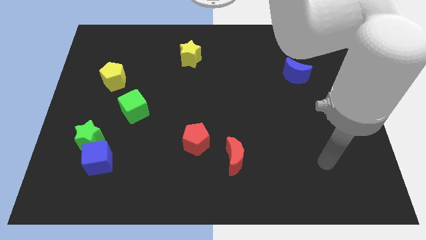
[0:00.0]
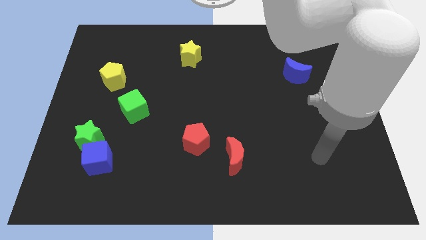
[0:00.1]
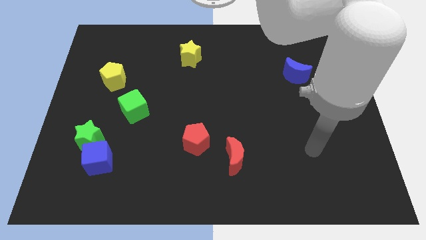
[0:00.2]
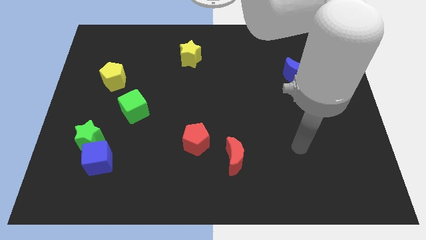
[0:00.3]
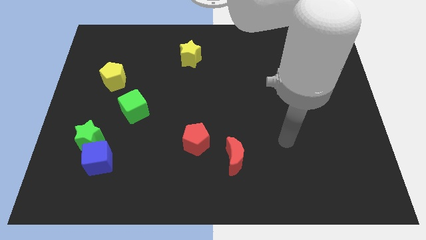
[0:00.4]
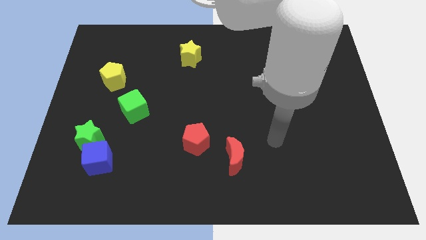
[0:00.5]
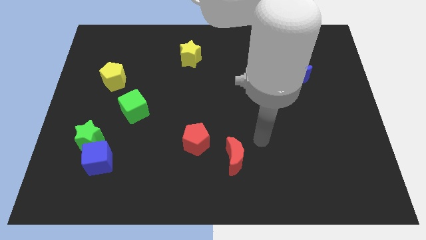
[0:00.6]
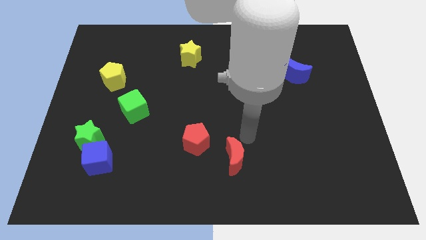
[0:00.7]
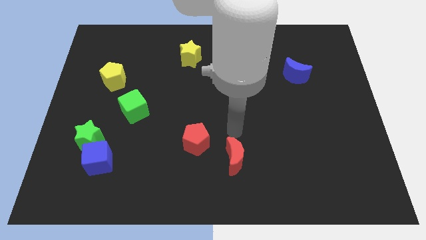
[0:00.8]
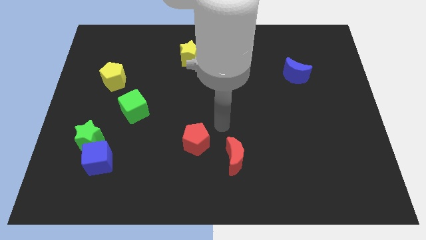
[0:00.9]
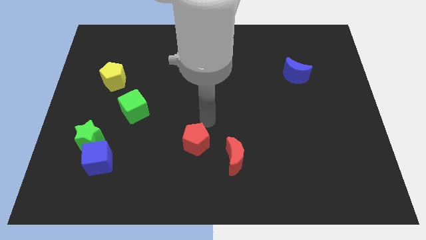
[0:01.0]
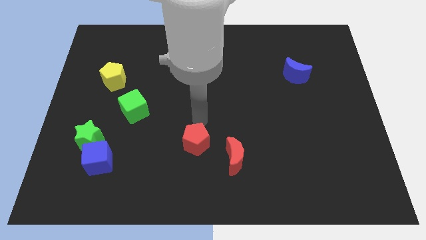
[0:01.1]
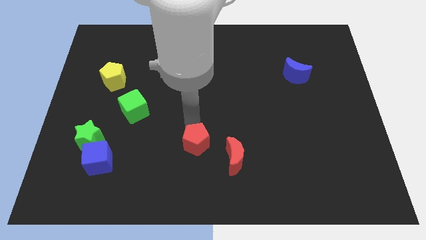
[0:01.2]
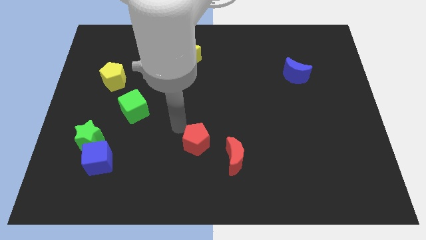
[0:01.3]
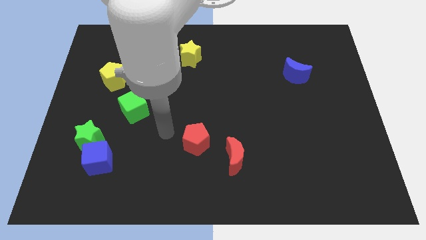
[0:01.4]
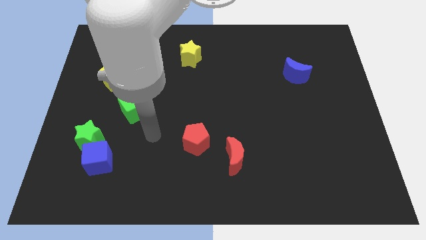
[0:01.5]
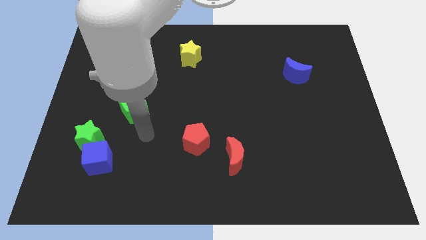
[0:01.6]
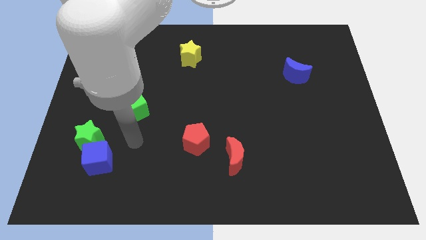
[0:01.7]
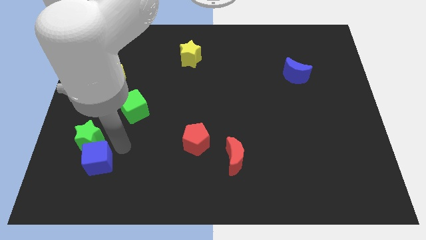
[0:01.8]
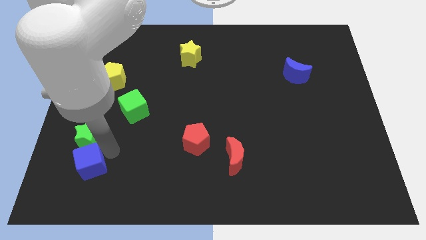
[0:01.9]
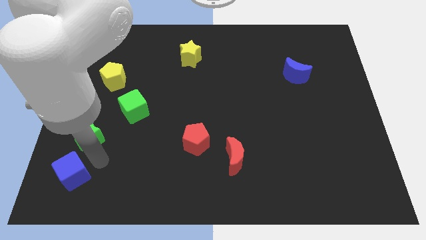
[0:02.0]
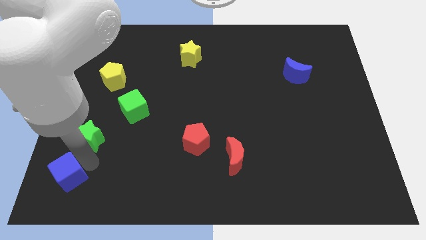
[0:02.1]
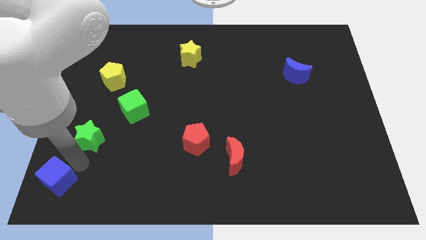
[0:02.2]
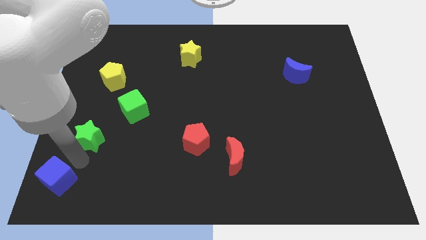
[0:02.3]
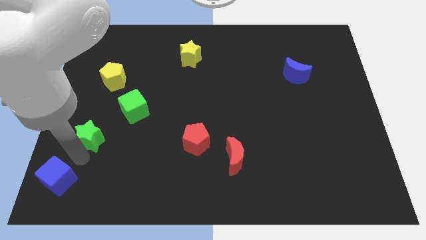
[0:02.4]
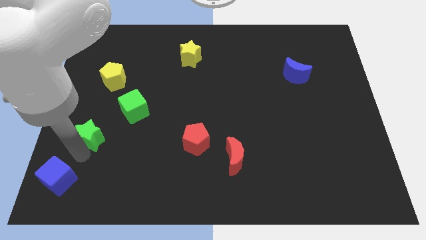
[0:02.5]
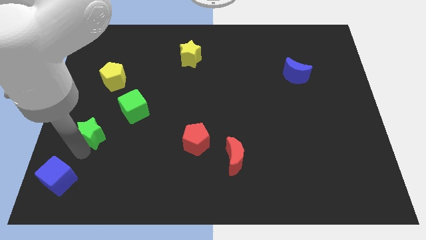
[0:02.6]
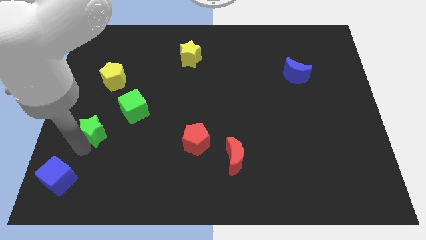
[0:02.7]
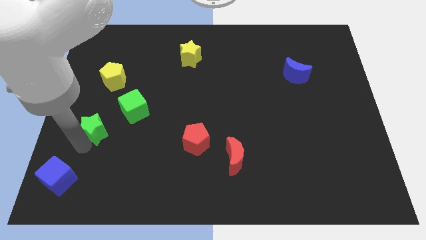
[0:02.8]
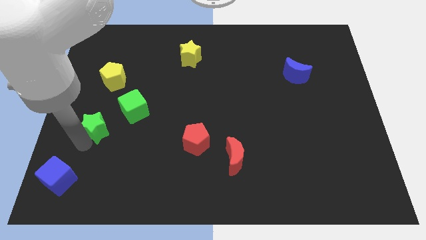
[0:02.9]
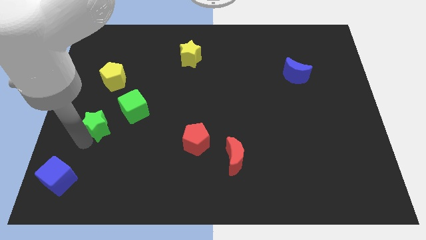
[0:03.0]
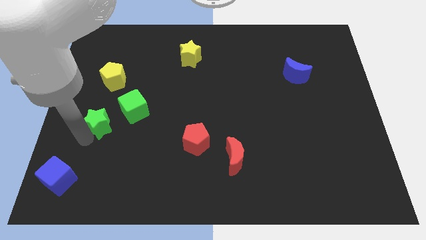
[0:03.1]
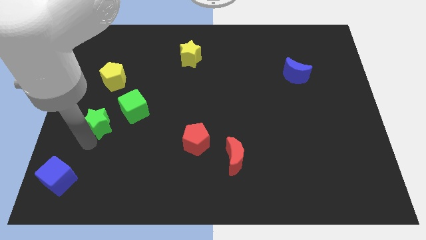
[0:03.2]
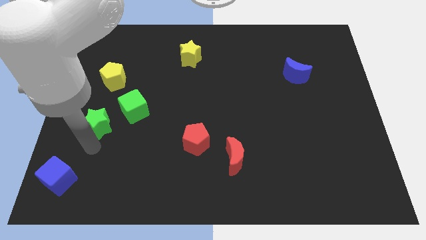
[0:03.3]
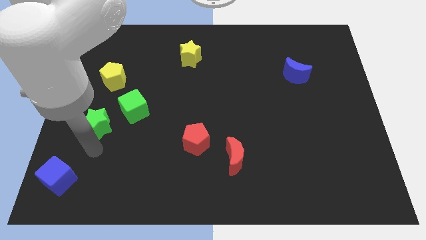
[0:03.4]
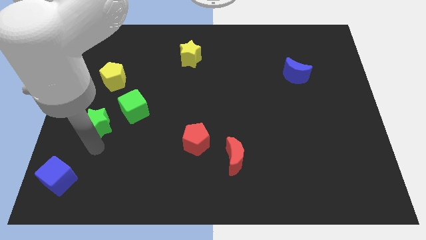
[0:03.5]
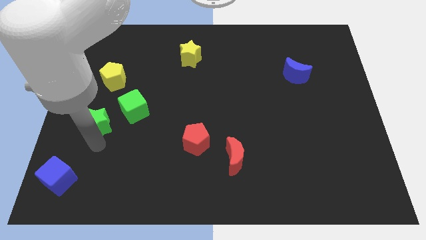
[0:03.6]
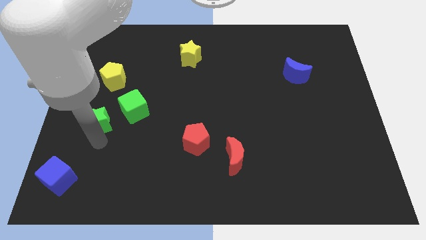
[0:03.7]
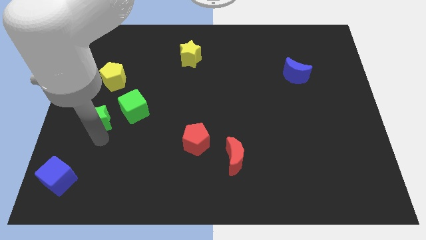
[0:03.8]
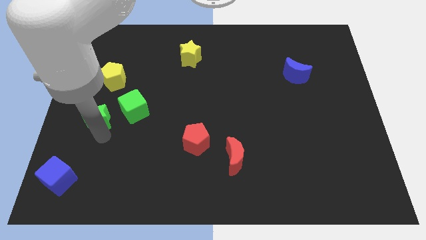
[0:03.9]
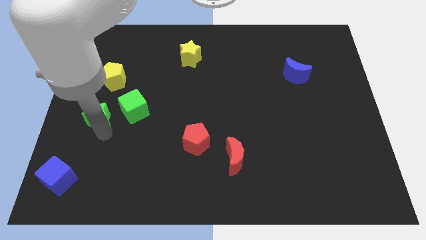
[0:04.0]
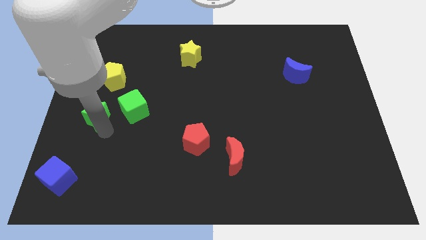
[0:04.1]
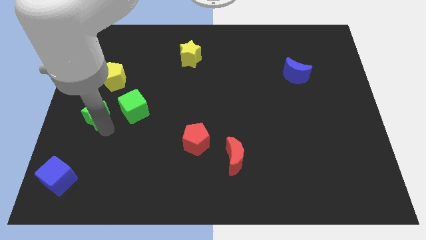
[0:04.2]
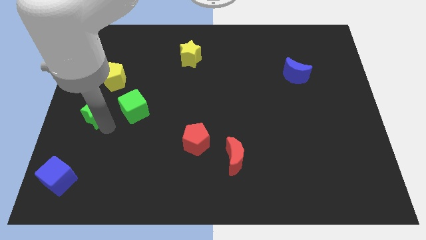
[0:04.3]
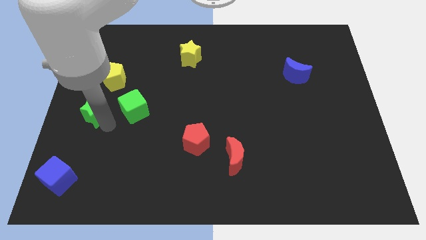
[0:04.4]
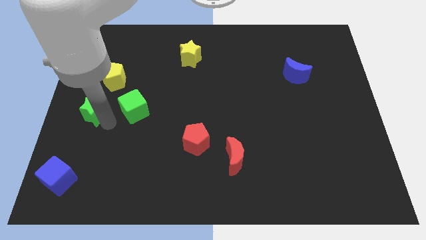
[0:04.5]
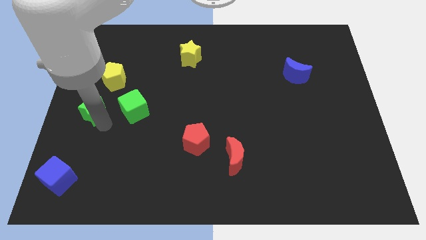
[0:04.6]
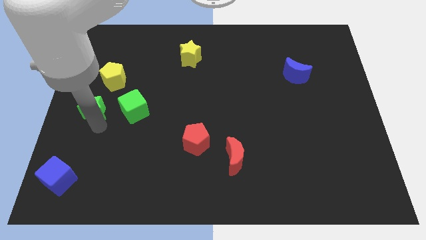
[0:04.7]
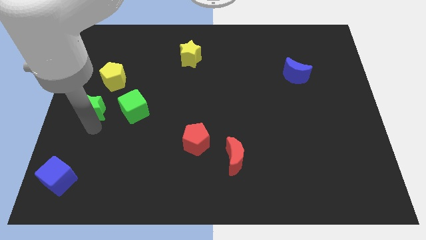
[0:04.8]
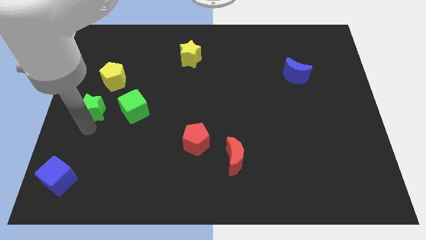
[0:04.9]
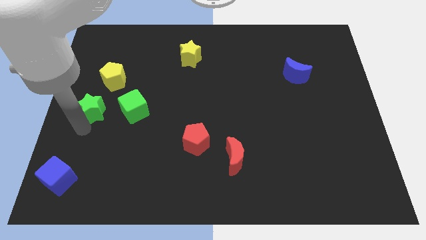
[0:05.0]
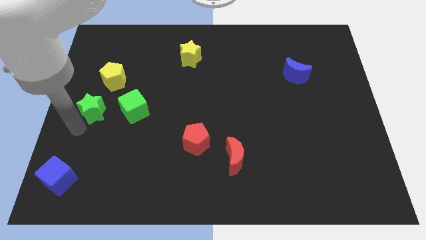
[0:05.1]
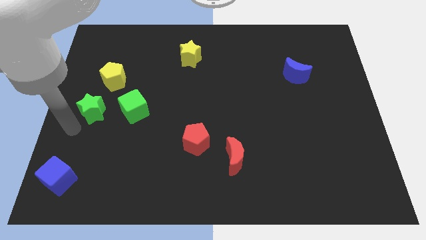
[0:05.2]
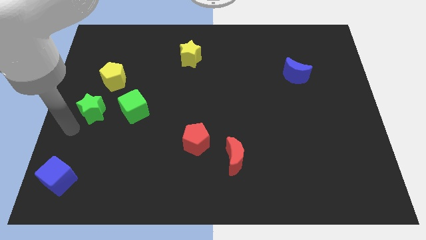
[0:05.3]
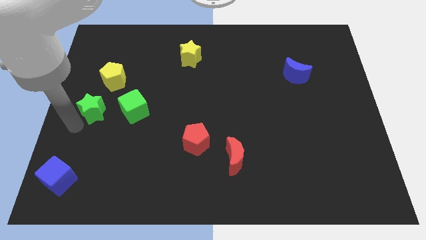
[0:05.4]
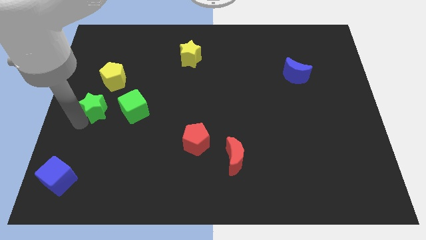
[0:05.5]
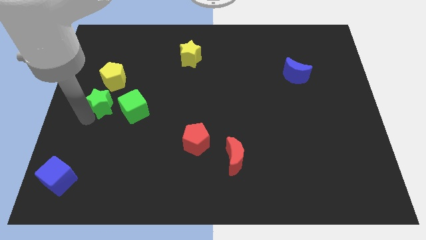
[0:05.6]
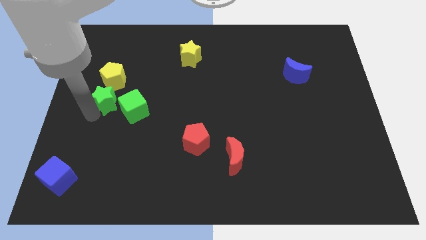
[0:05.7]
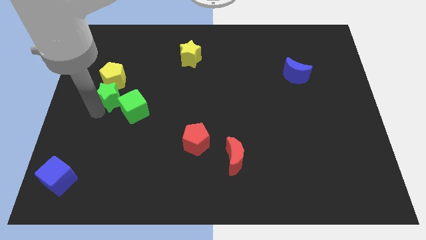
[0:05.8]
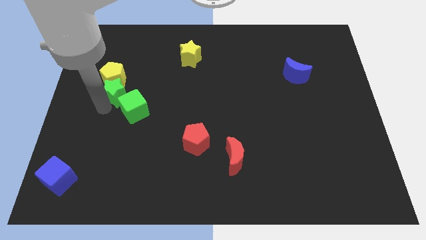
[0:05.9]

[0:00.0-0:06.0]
put the green star to the yellow pentagon
